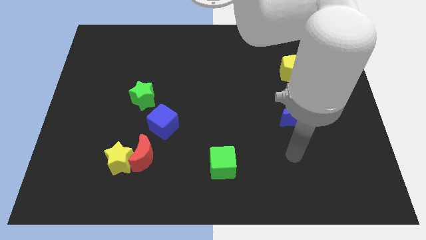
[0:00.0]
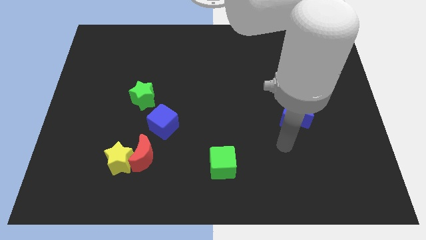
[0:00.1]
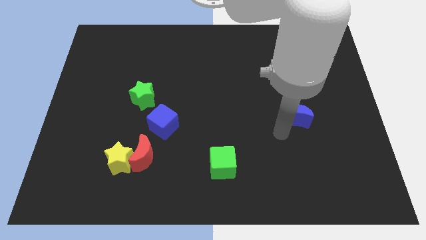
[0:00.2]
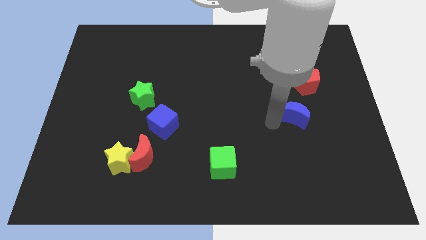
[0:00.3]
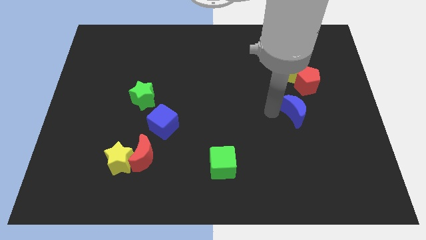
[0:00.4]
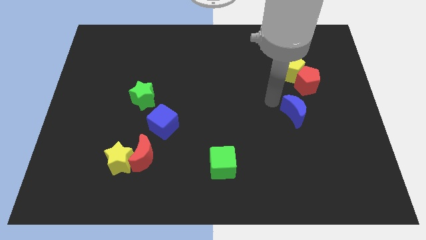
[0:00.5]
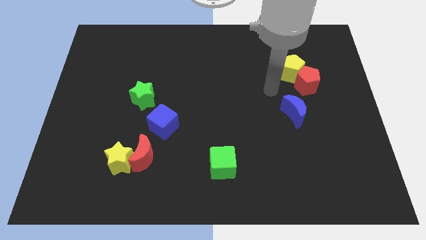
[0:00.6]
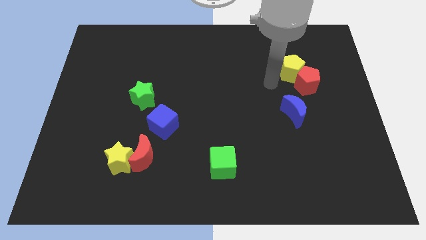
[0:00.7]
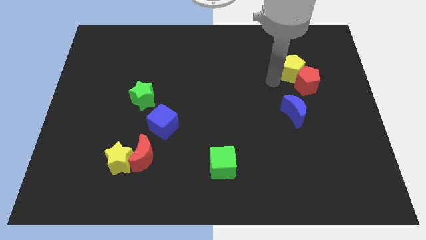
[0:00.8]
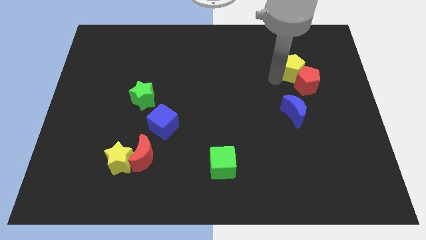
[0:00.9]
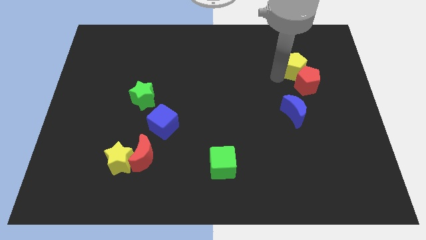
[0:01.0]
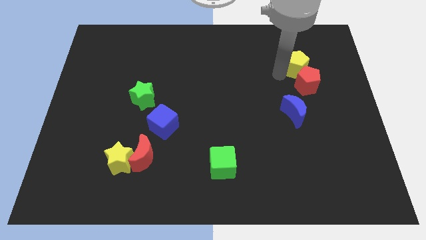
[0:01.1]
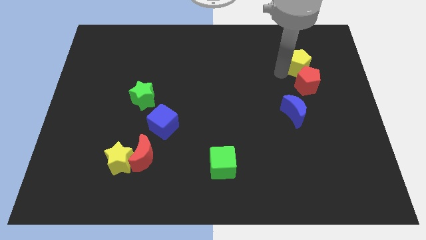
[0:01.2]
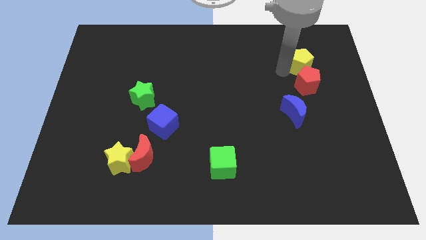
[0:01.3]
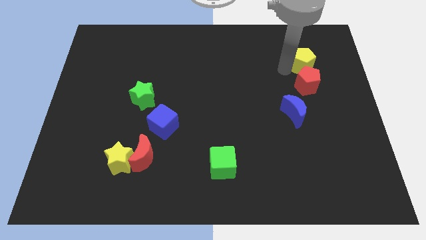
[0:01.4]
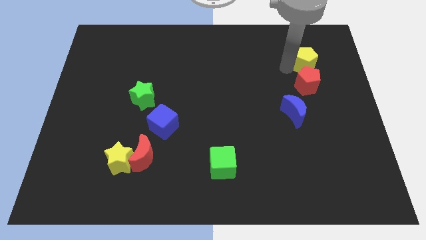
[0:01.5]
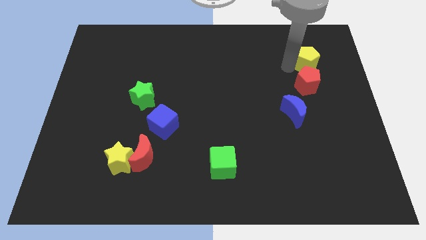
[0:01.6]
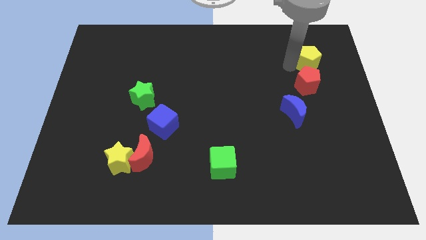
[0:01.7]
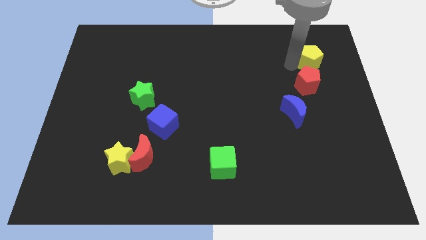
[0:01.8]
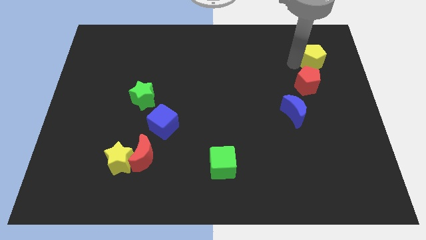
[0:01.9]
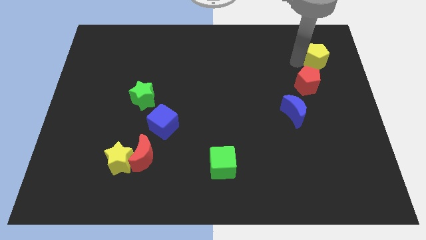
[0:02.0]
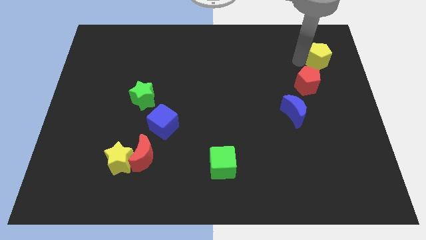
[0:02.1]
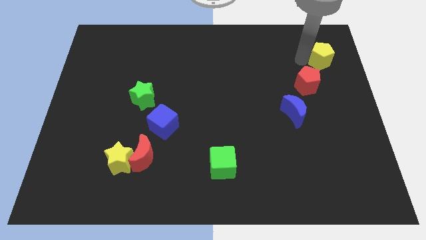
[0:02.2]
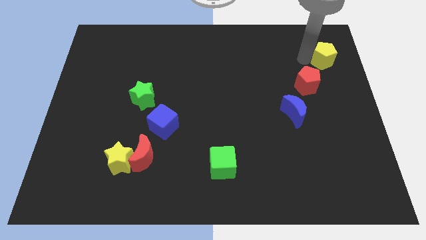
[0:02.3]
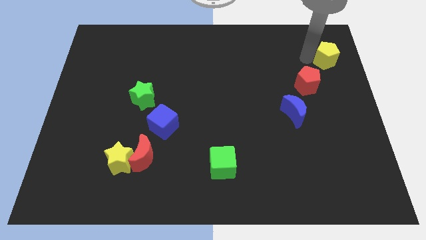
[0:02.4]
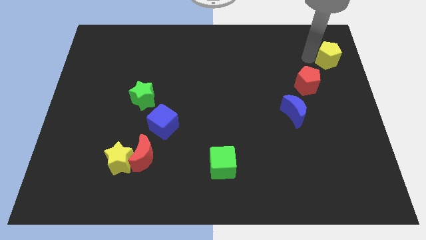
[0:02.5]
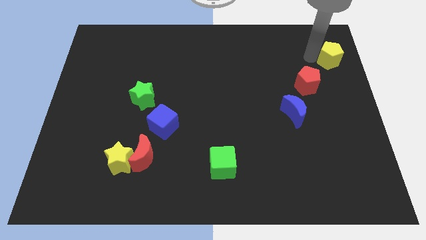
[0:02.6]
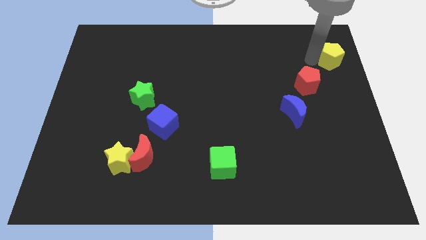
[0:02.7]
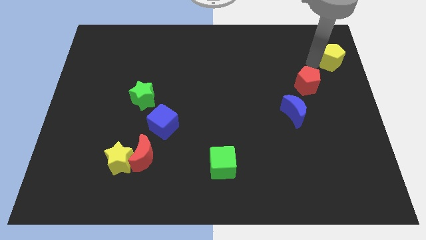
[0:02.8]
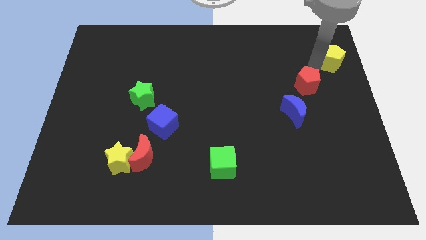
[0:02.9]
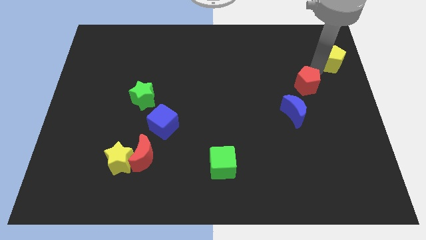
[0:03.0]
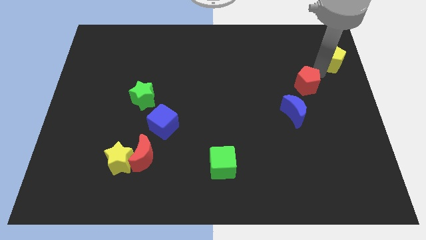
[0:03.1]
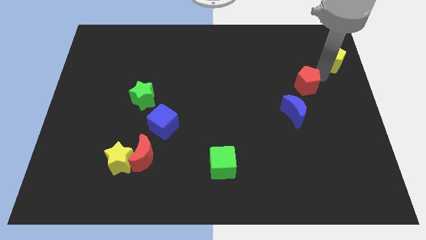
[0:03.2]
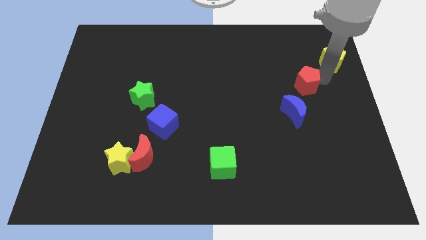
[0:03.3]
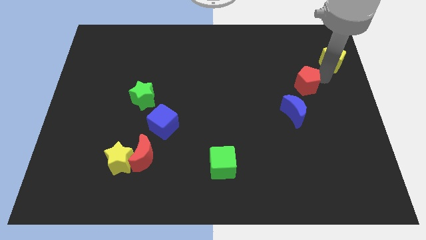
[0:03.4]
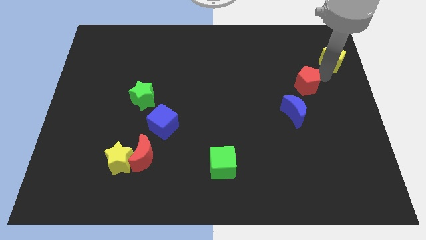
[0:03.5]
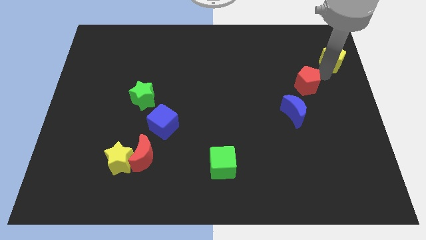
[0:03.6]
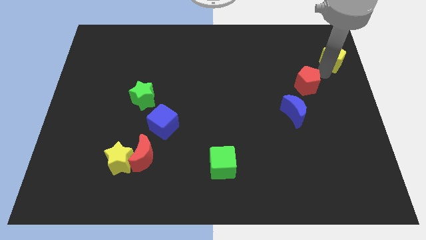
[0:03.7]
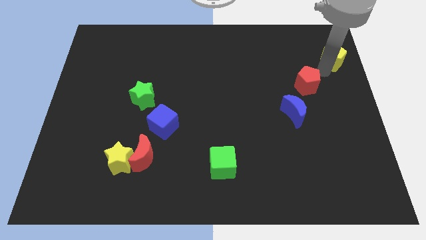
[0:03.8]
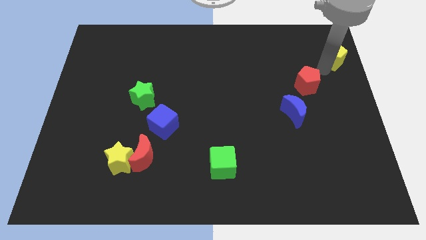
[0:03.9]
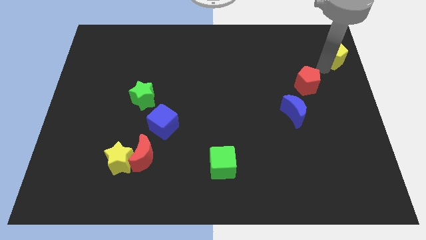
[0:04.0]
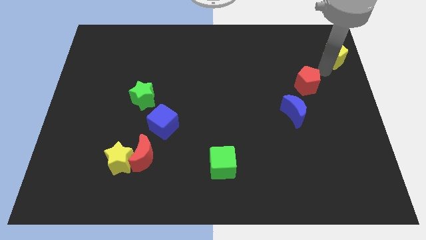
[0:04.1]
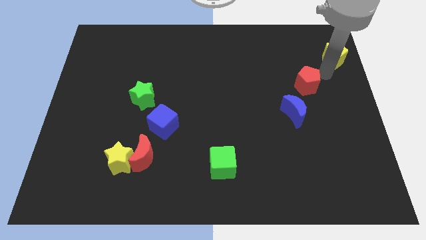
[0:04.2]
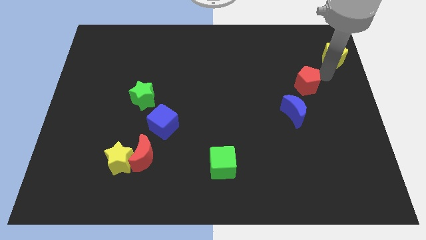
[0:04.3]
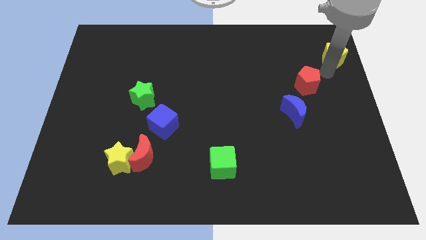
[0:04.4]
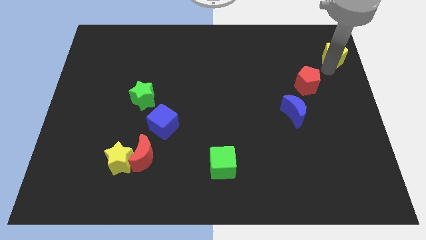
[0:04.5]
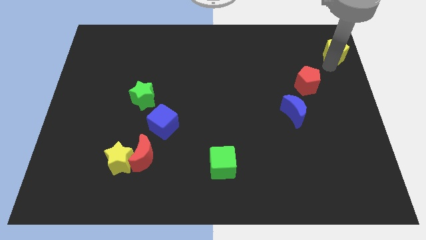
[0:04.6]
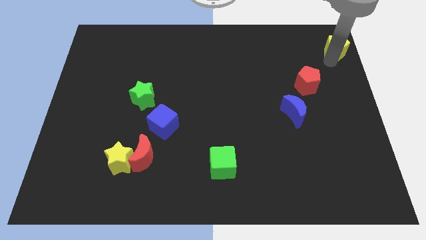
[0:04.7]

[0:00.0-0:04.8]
move the yellow pentagon to the top right corner

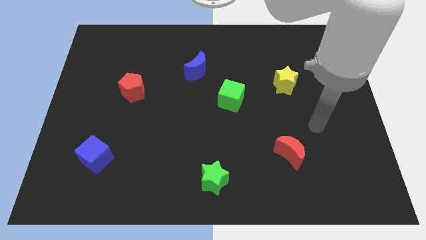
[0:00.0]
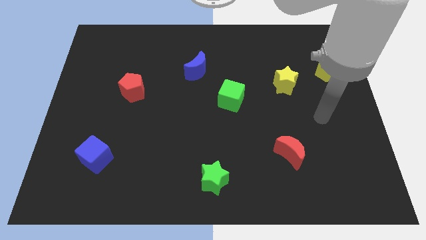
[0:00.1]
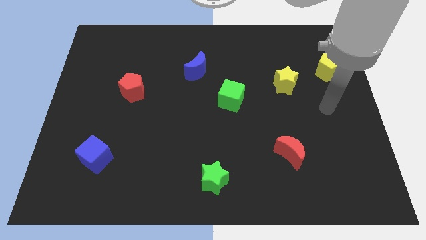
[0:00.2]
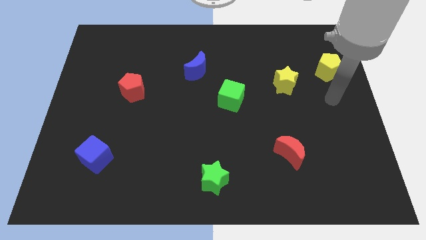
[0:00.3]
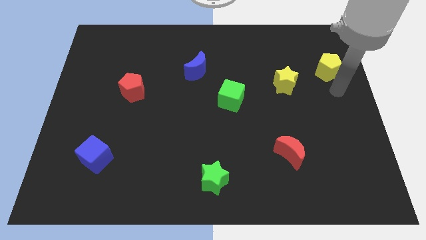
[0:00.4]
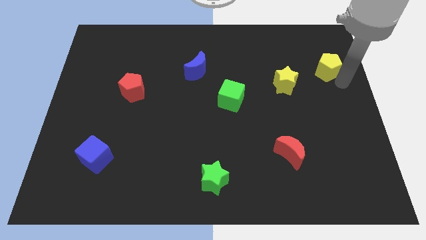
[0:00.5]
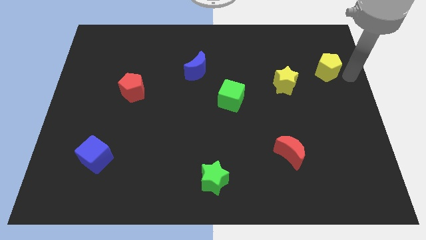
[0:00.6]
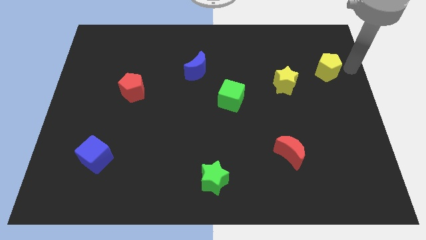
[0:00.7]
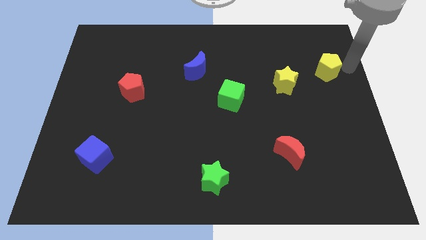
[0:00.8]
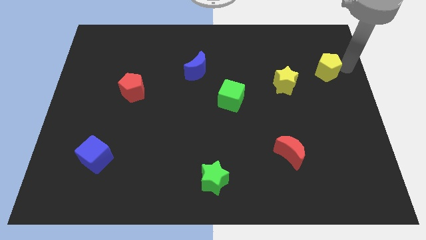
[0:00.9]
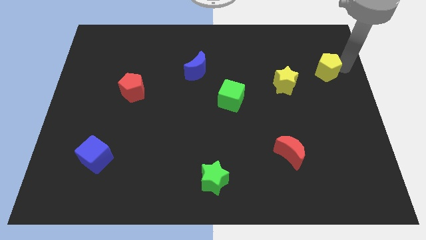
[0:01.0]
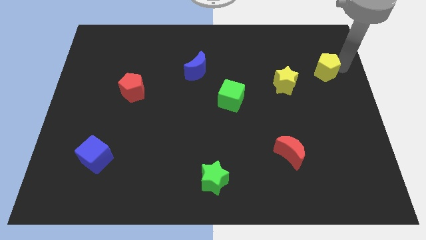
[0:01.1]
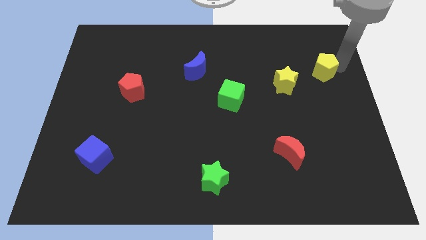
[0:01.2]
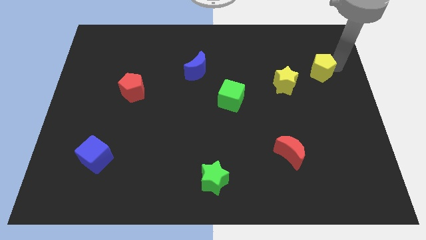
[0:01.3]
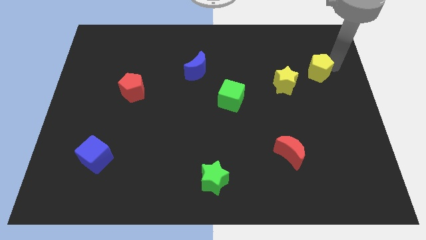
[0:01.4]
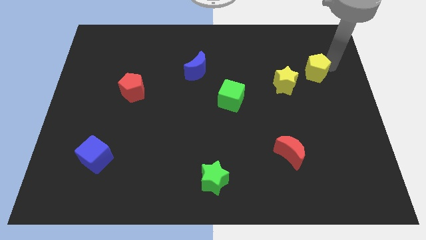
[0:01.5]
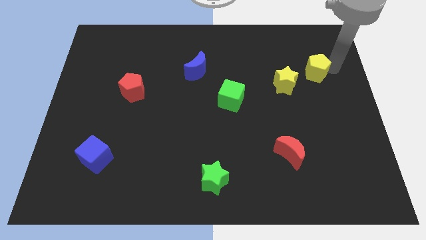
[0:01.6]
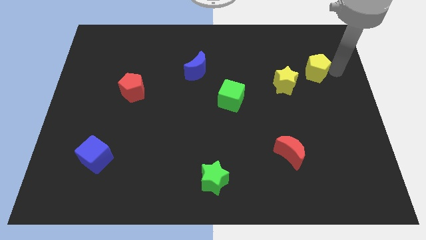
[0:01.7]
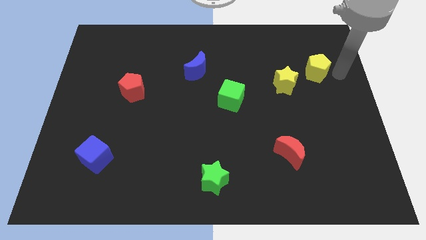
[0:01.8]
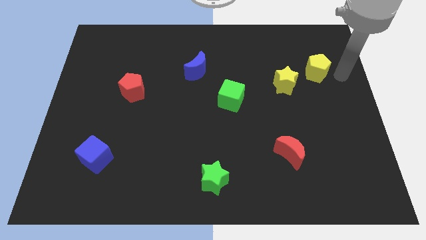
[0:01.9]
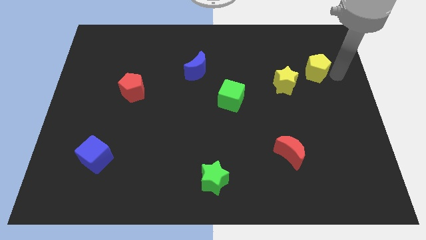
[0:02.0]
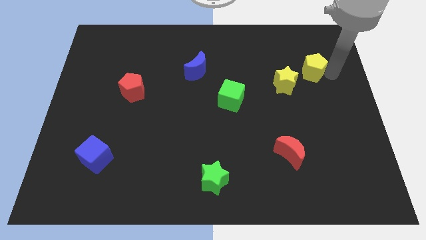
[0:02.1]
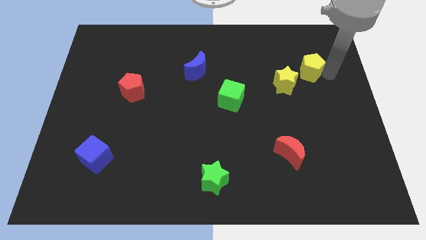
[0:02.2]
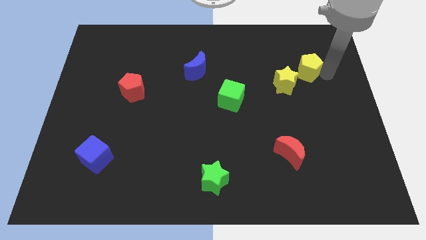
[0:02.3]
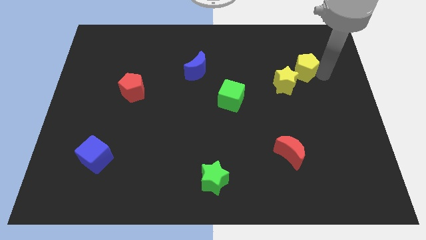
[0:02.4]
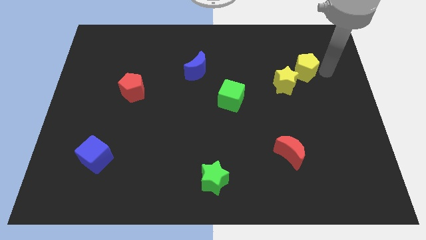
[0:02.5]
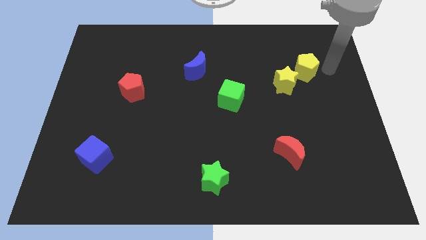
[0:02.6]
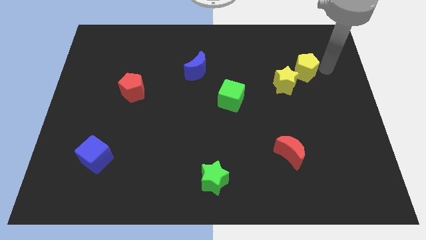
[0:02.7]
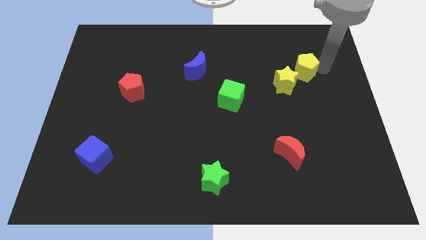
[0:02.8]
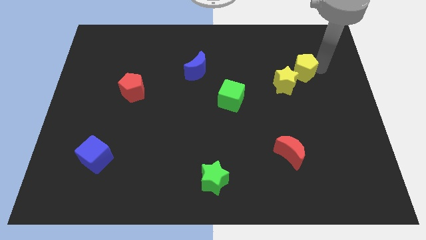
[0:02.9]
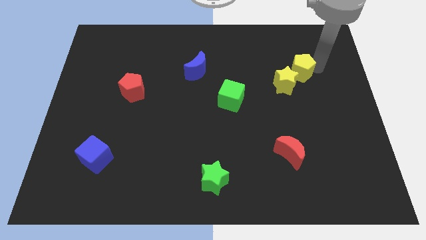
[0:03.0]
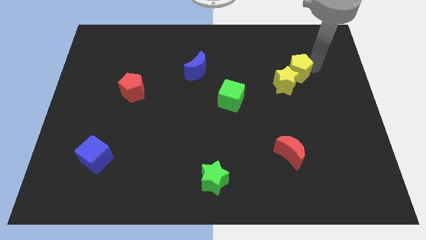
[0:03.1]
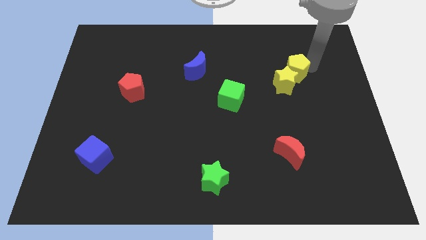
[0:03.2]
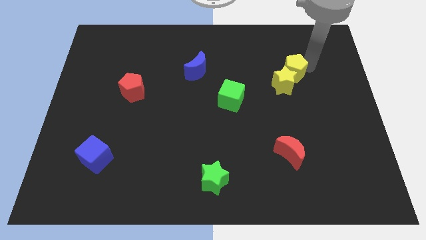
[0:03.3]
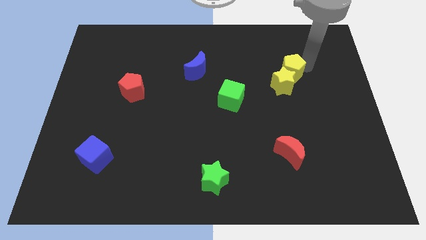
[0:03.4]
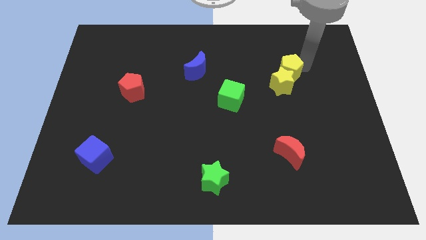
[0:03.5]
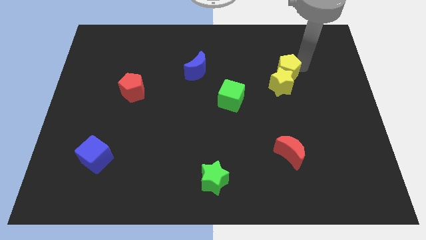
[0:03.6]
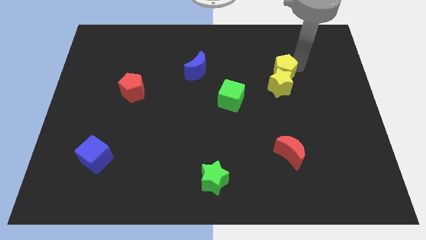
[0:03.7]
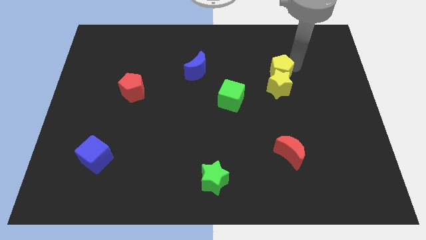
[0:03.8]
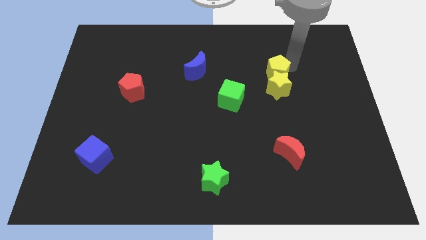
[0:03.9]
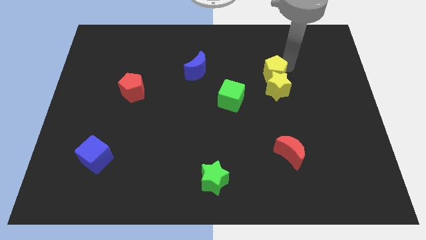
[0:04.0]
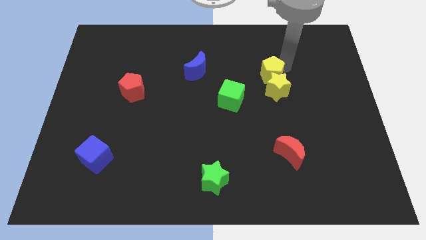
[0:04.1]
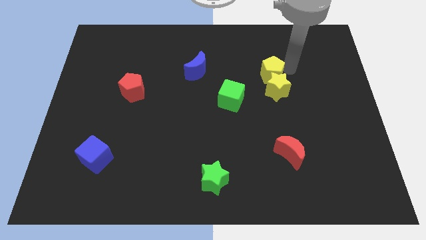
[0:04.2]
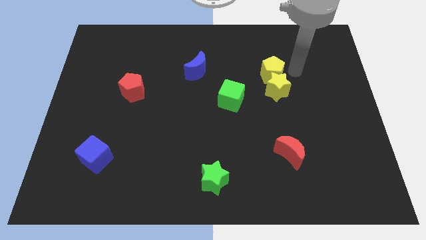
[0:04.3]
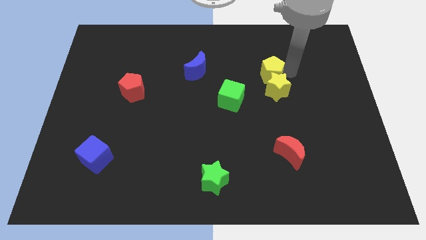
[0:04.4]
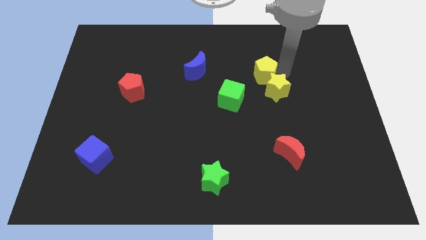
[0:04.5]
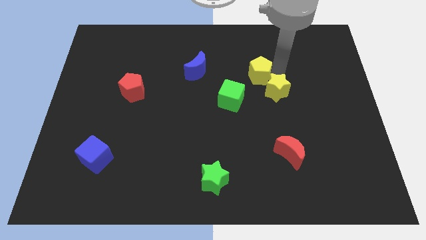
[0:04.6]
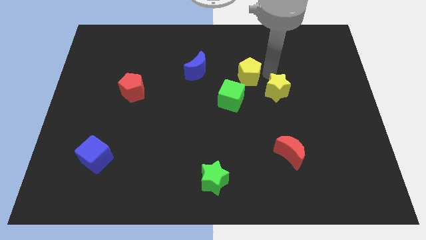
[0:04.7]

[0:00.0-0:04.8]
put the yellow pentagon to the middle of the board
